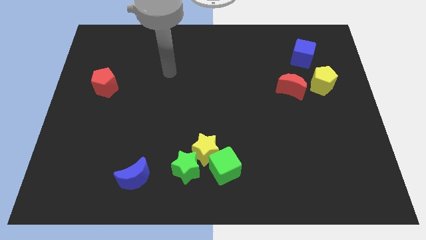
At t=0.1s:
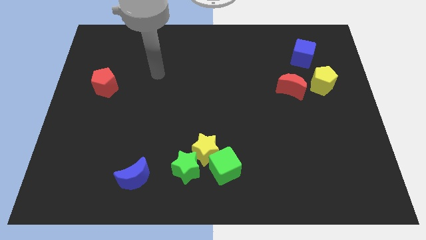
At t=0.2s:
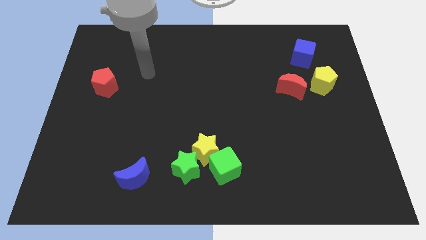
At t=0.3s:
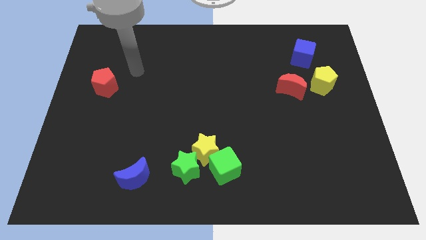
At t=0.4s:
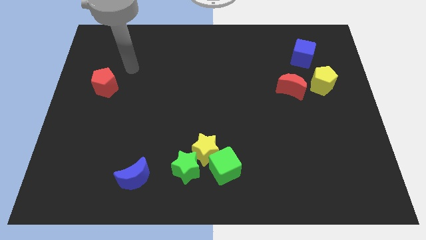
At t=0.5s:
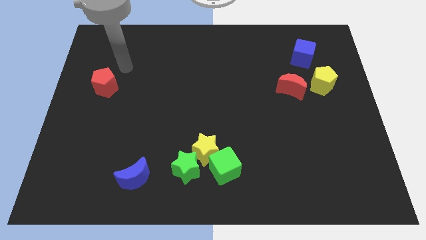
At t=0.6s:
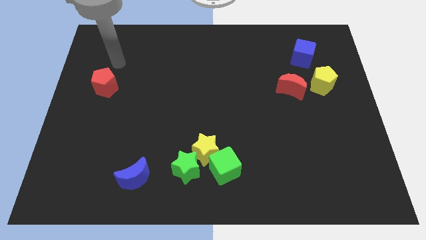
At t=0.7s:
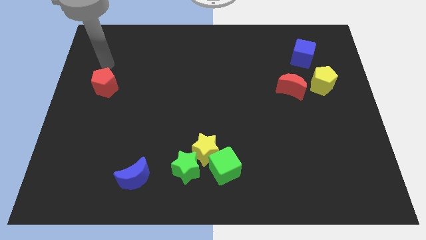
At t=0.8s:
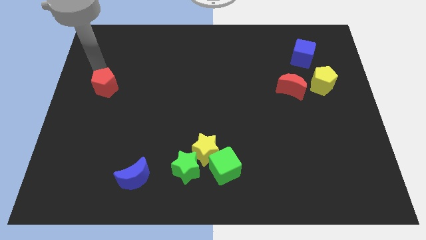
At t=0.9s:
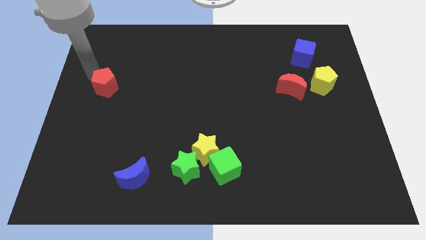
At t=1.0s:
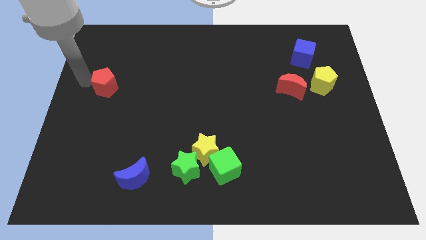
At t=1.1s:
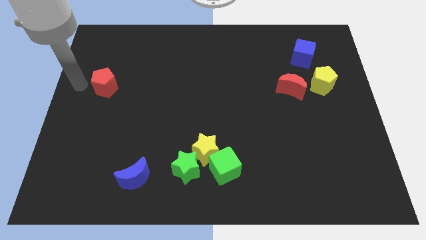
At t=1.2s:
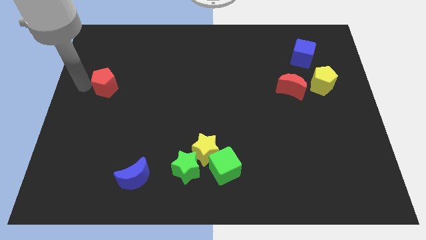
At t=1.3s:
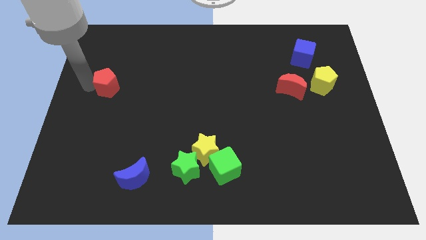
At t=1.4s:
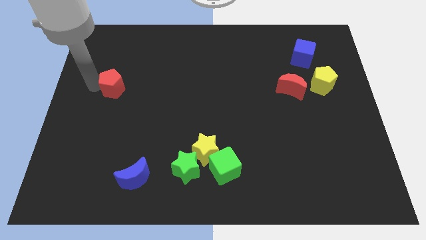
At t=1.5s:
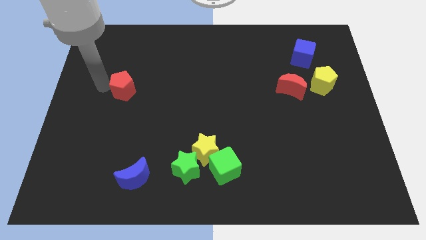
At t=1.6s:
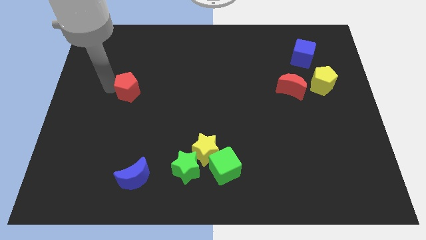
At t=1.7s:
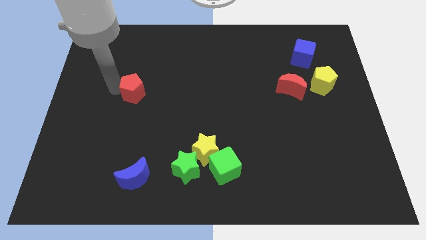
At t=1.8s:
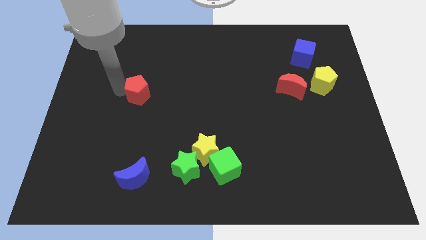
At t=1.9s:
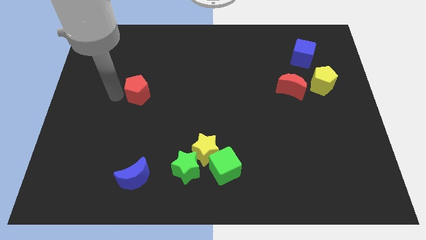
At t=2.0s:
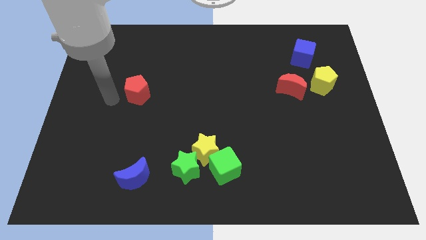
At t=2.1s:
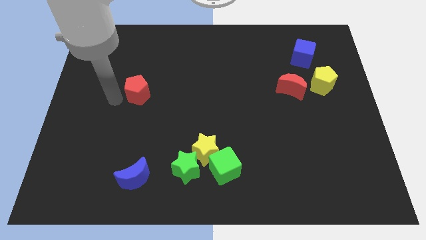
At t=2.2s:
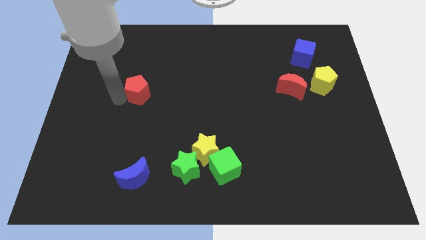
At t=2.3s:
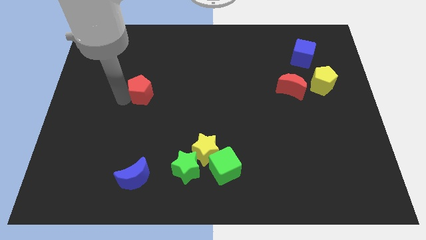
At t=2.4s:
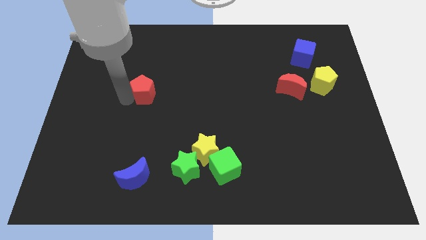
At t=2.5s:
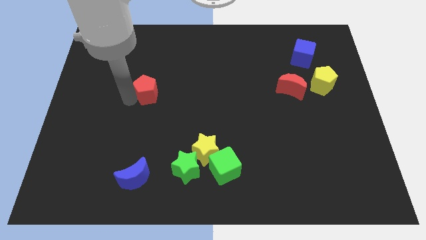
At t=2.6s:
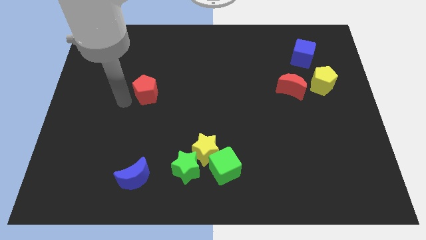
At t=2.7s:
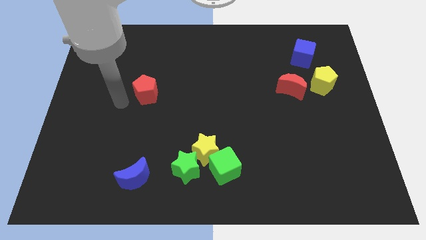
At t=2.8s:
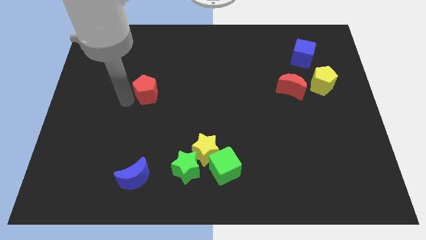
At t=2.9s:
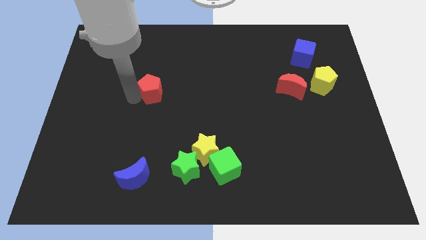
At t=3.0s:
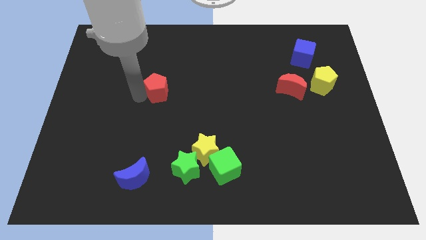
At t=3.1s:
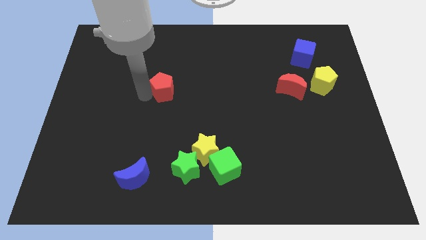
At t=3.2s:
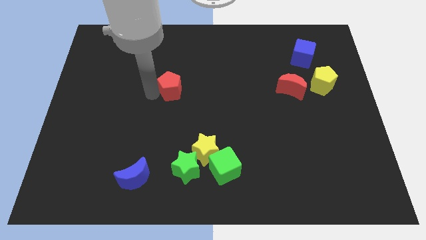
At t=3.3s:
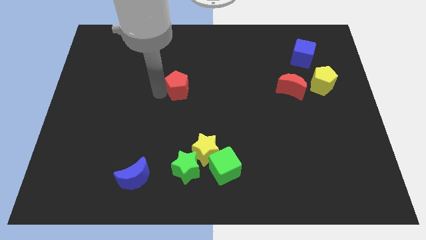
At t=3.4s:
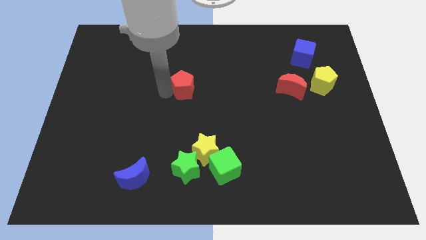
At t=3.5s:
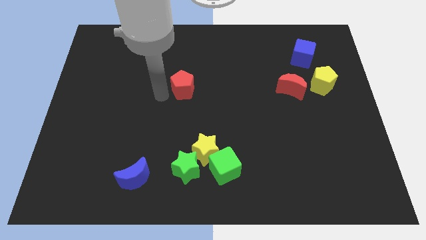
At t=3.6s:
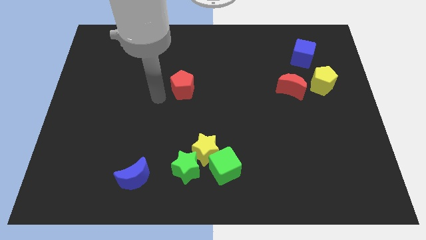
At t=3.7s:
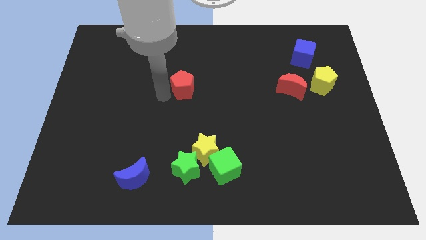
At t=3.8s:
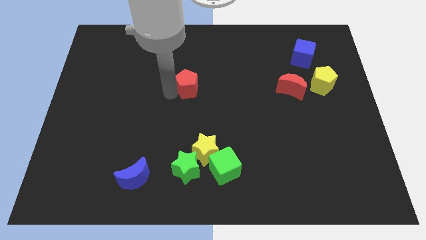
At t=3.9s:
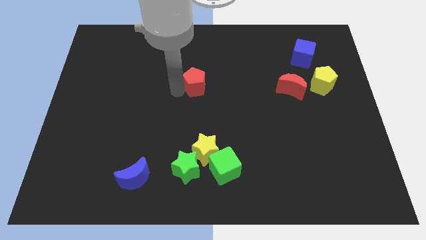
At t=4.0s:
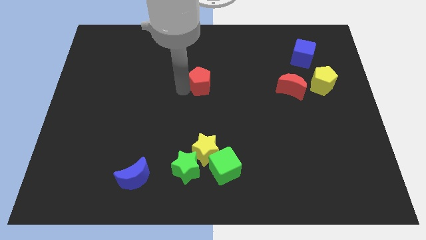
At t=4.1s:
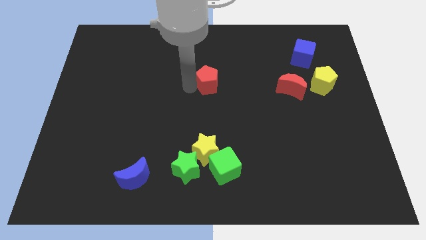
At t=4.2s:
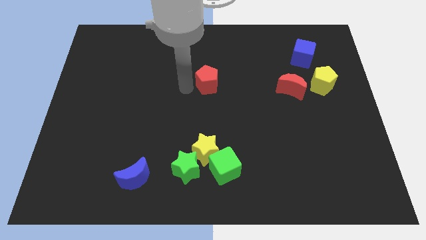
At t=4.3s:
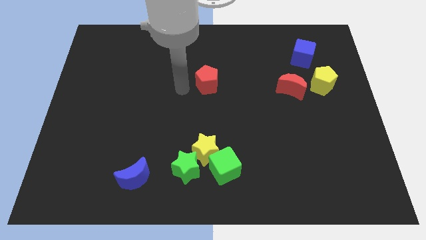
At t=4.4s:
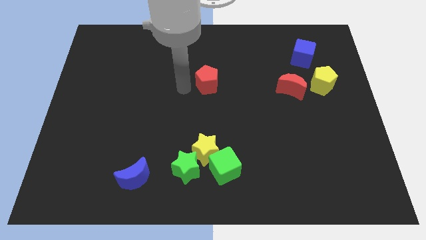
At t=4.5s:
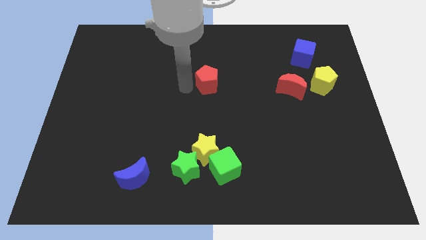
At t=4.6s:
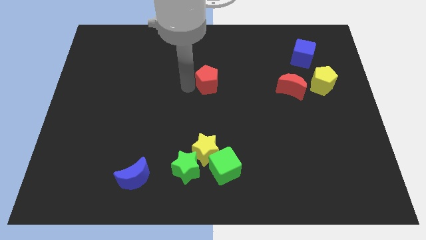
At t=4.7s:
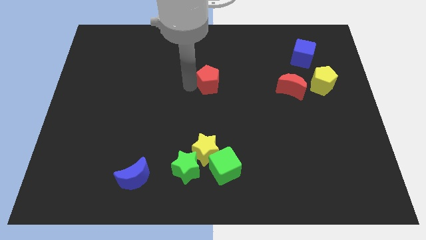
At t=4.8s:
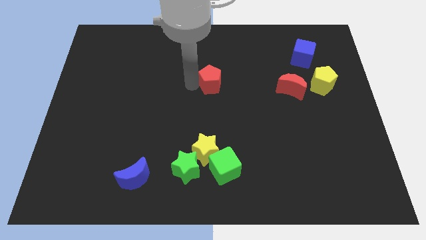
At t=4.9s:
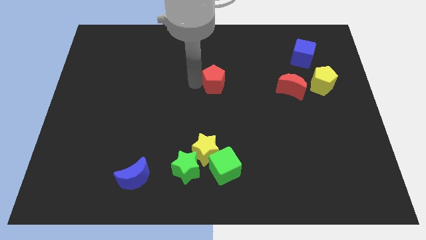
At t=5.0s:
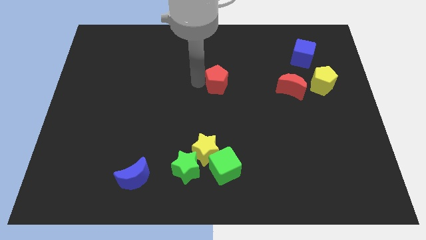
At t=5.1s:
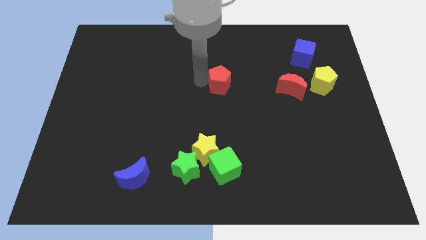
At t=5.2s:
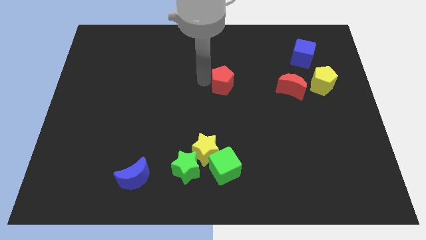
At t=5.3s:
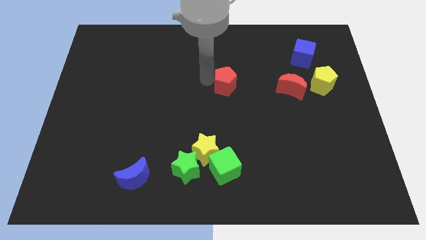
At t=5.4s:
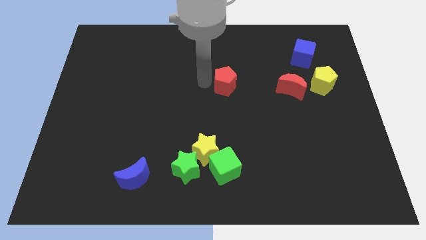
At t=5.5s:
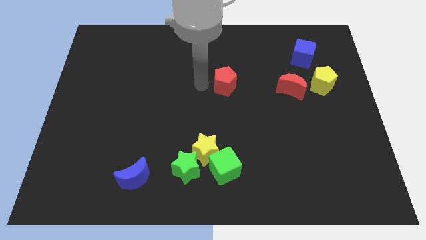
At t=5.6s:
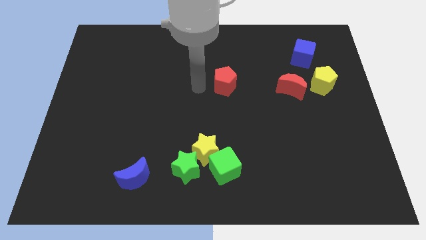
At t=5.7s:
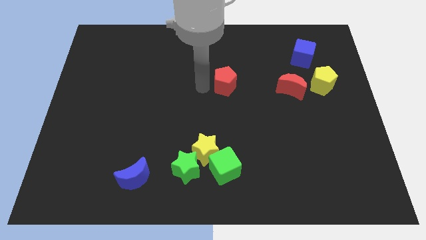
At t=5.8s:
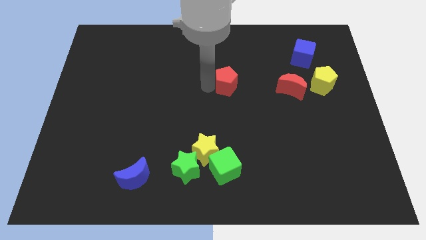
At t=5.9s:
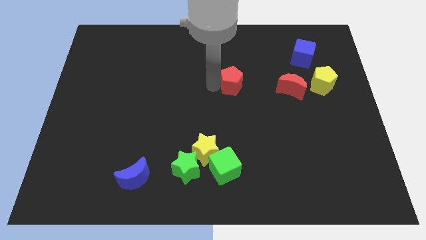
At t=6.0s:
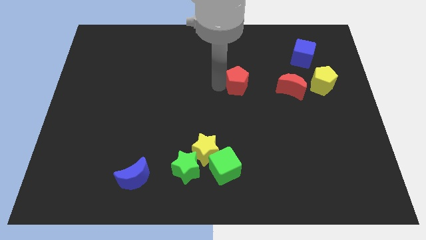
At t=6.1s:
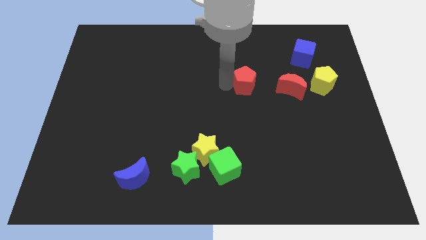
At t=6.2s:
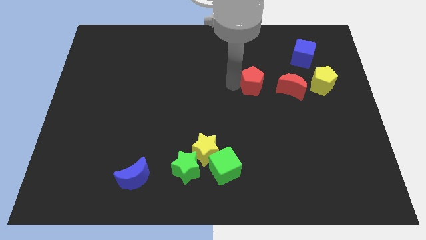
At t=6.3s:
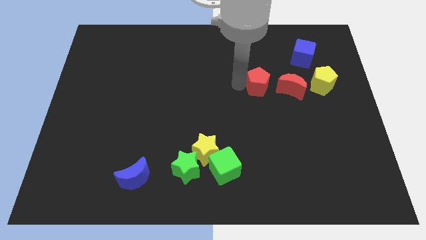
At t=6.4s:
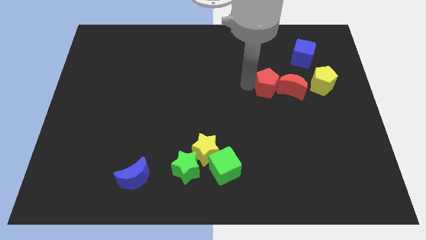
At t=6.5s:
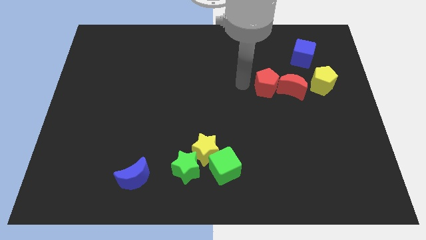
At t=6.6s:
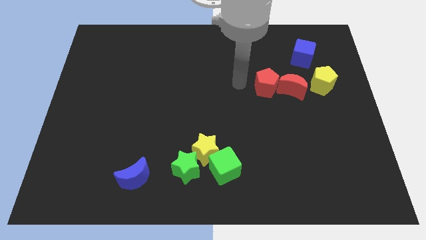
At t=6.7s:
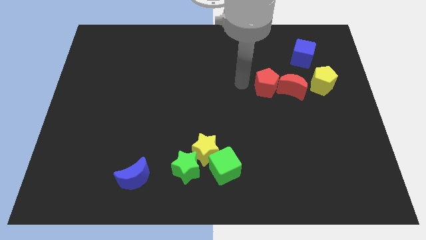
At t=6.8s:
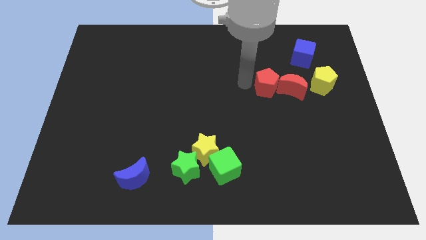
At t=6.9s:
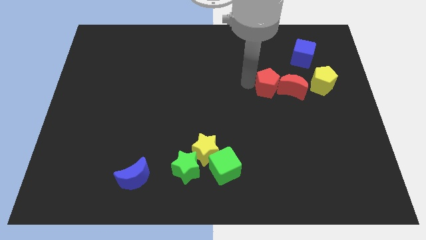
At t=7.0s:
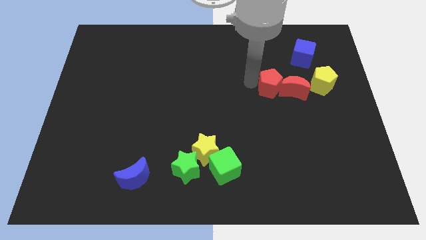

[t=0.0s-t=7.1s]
put the red pentagon towards the red moon
